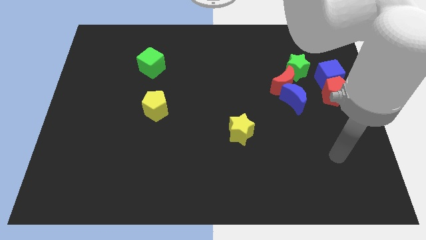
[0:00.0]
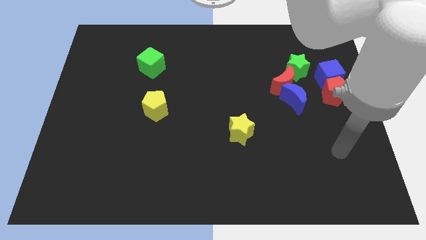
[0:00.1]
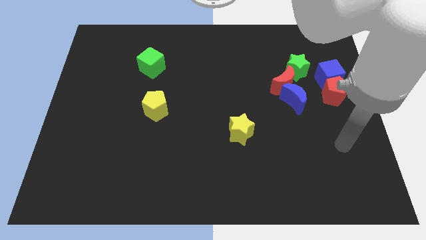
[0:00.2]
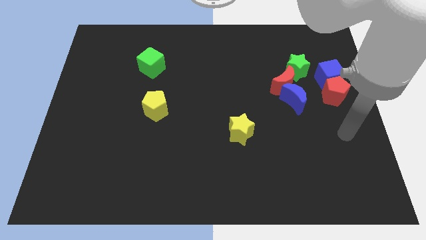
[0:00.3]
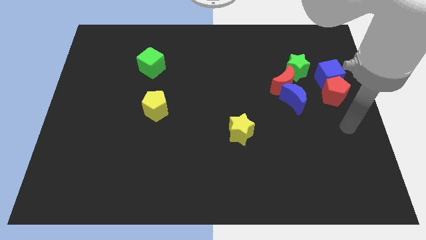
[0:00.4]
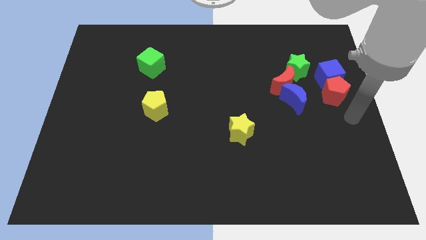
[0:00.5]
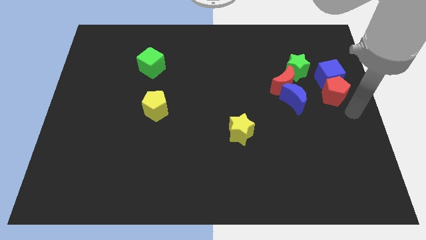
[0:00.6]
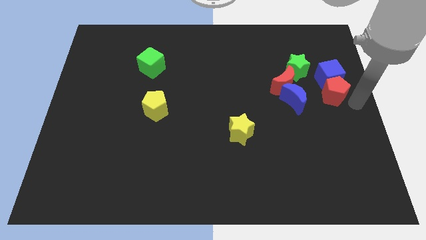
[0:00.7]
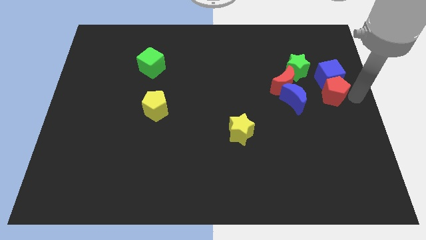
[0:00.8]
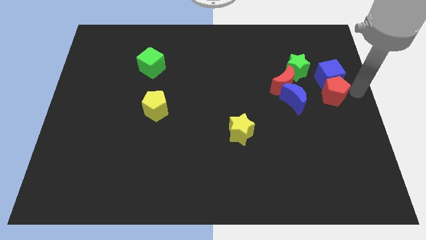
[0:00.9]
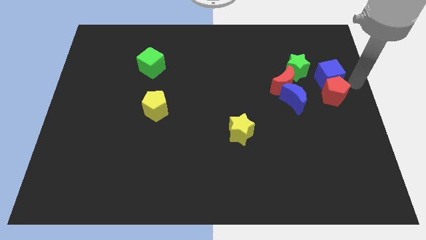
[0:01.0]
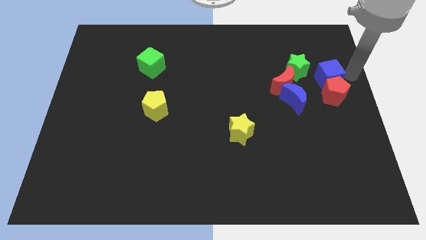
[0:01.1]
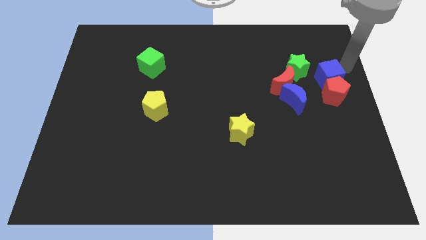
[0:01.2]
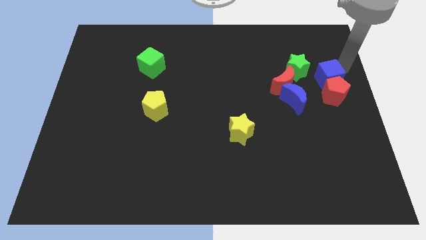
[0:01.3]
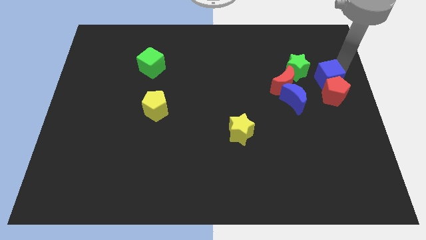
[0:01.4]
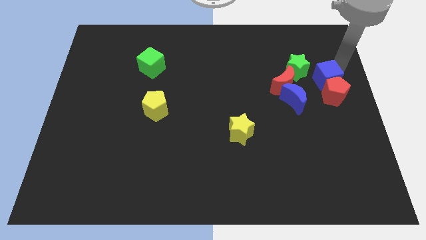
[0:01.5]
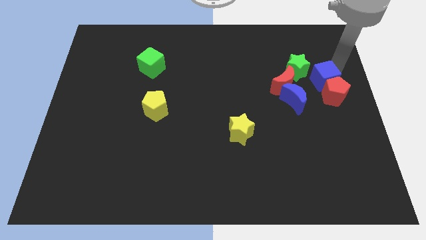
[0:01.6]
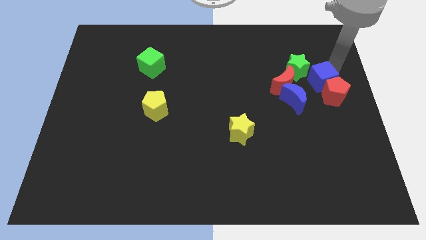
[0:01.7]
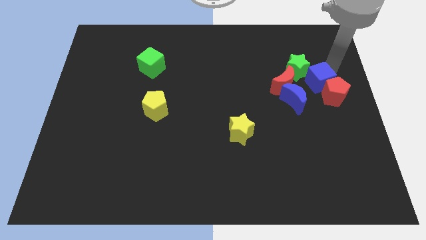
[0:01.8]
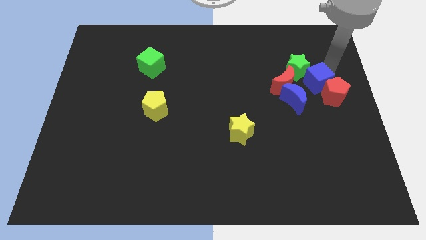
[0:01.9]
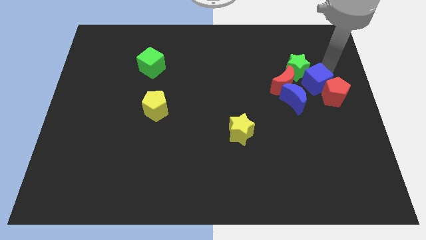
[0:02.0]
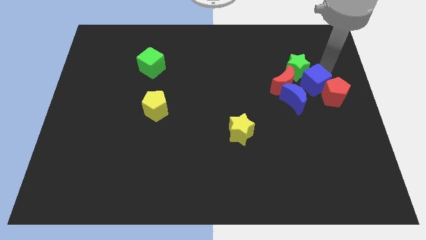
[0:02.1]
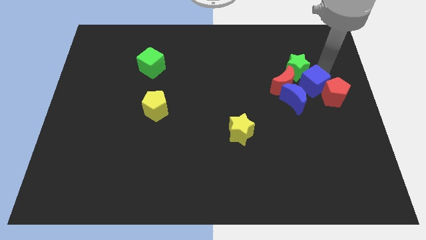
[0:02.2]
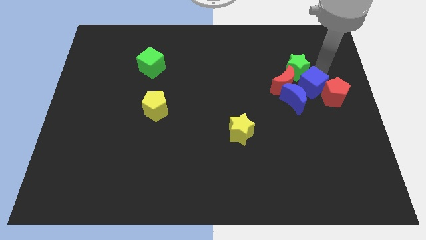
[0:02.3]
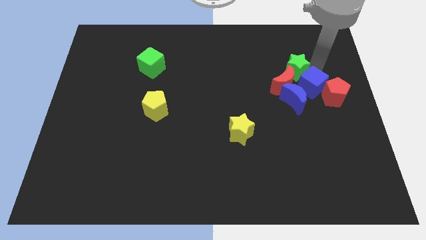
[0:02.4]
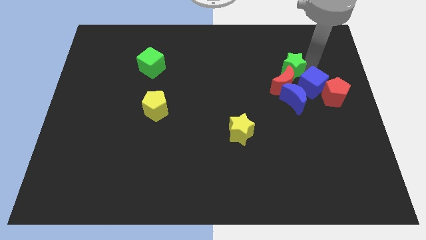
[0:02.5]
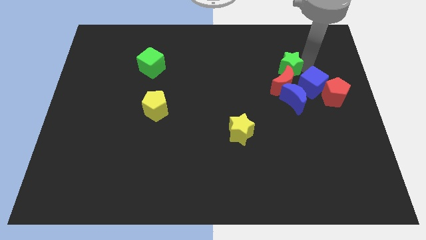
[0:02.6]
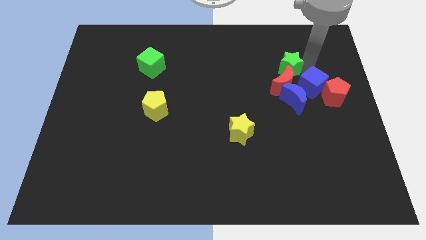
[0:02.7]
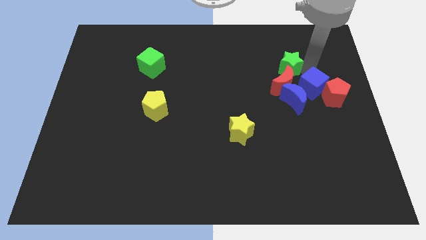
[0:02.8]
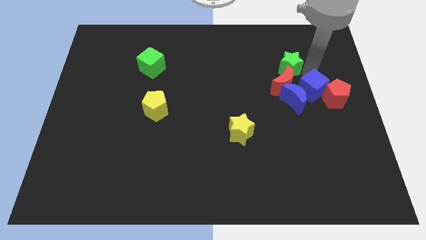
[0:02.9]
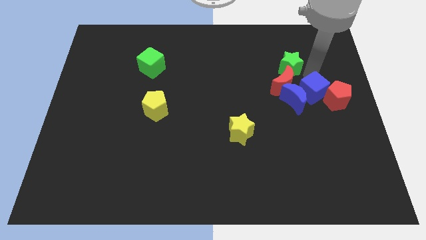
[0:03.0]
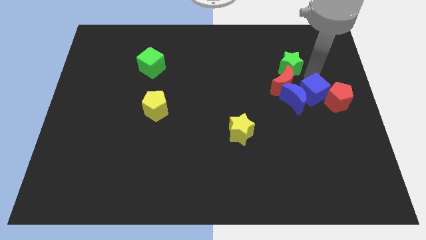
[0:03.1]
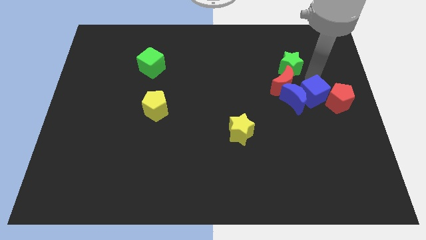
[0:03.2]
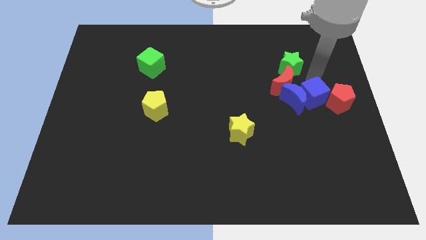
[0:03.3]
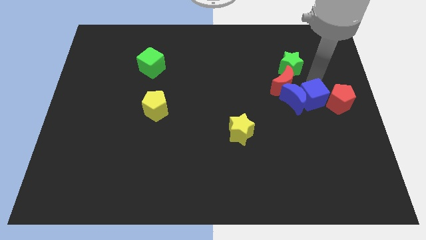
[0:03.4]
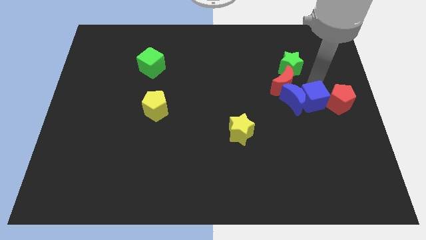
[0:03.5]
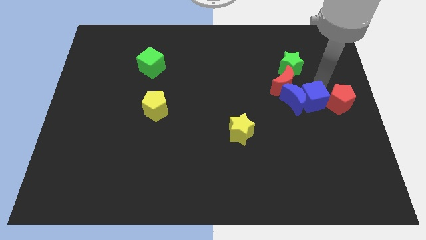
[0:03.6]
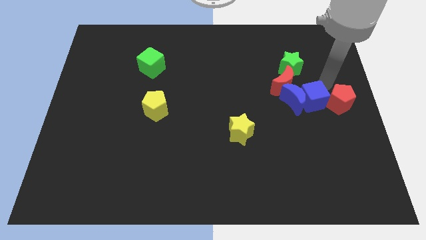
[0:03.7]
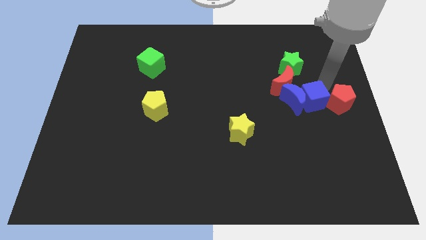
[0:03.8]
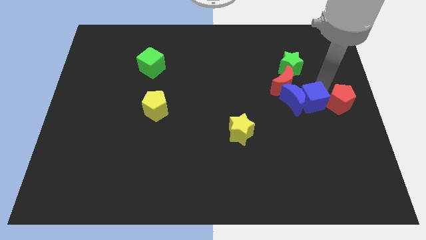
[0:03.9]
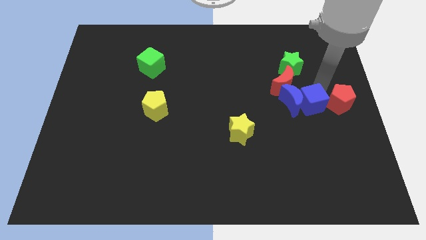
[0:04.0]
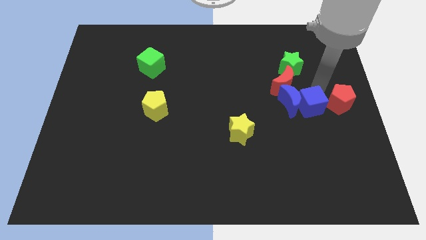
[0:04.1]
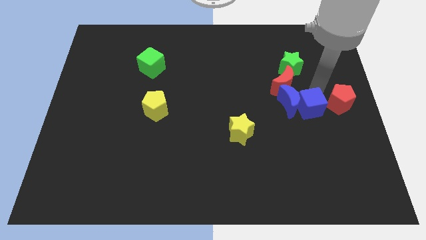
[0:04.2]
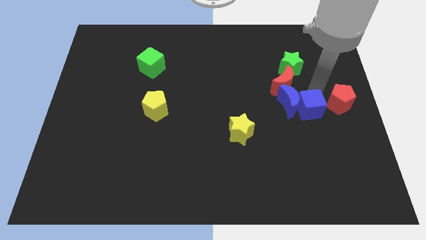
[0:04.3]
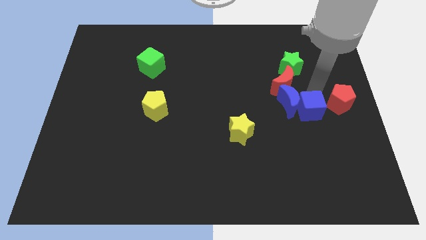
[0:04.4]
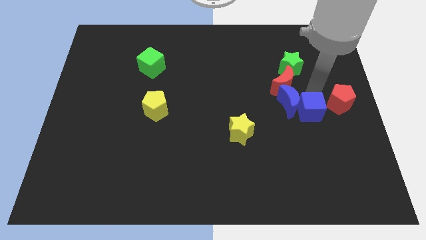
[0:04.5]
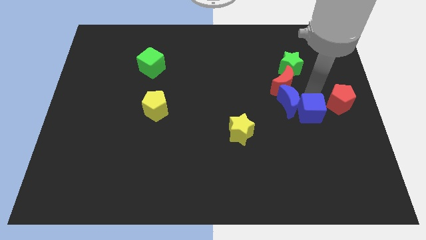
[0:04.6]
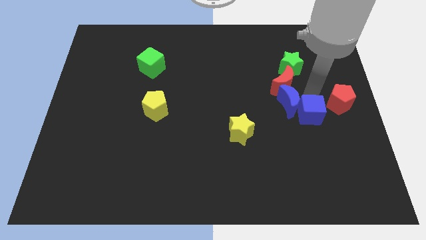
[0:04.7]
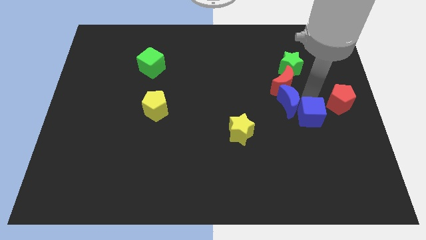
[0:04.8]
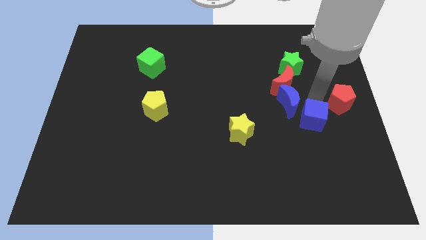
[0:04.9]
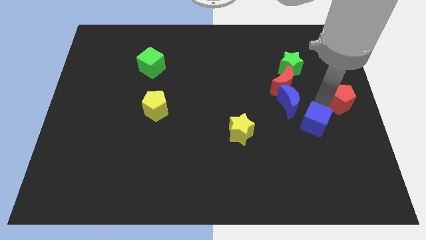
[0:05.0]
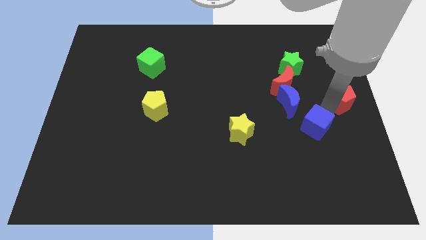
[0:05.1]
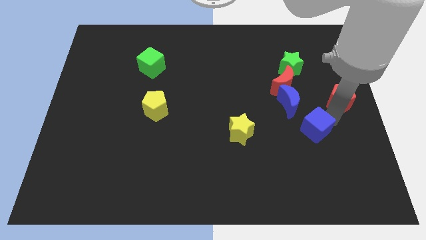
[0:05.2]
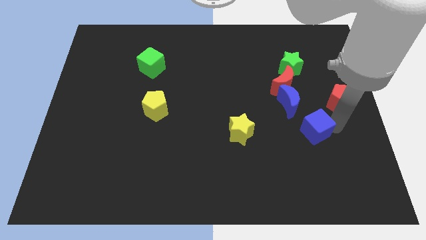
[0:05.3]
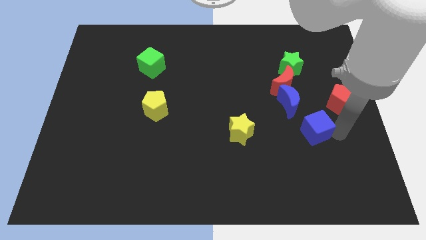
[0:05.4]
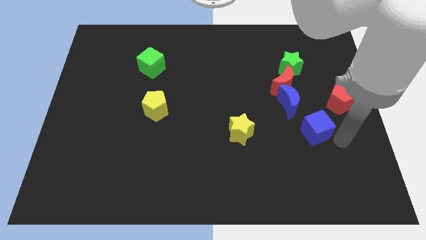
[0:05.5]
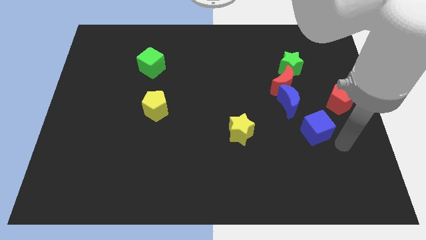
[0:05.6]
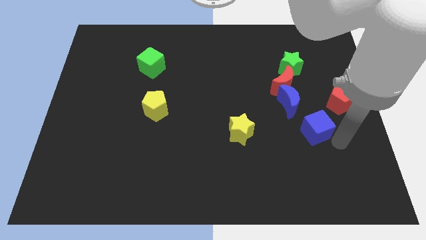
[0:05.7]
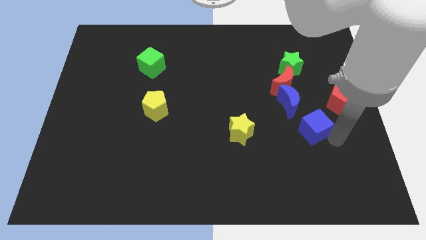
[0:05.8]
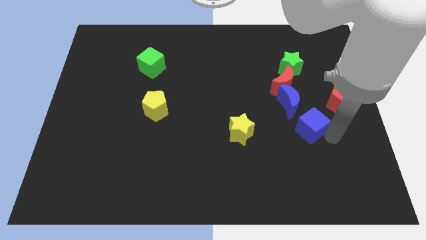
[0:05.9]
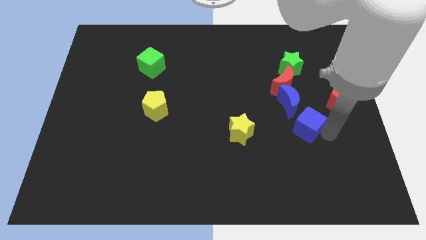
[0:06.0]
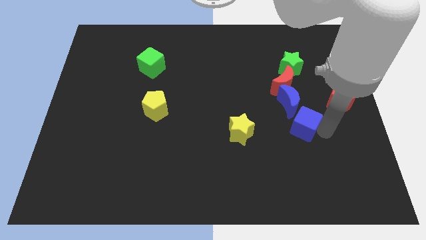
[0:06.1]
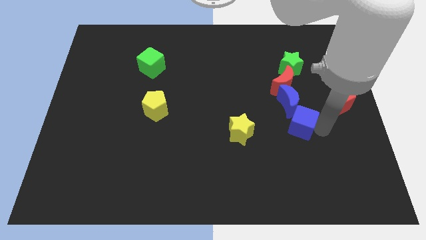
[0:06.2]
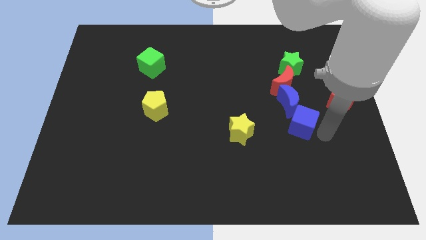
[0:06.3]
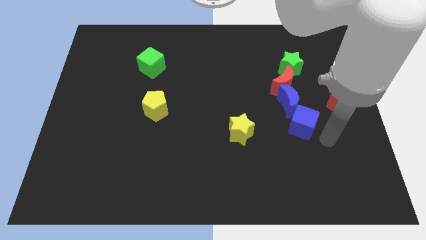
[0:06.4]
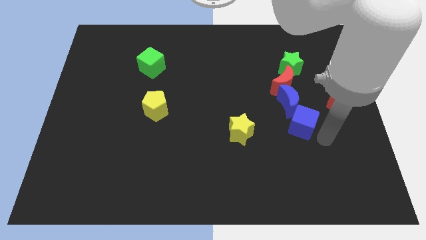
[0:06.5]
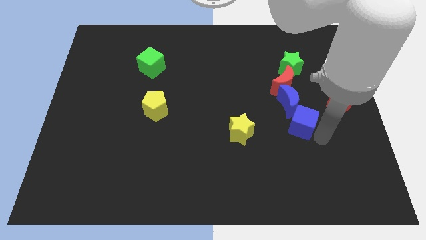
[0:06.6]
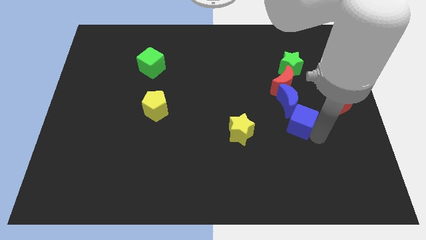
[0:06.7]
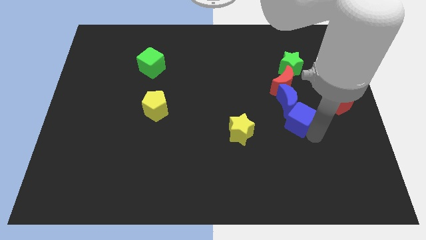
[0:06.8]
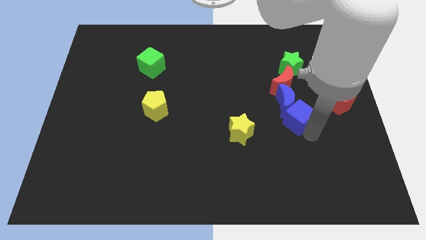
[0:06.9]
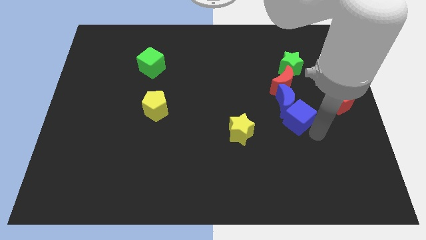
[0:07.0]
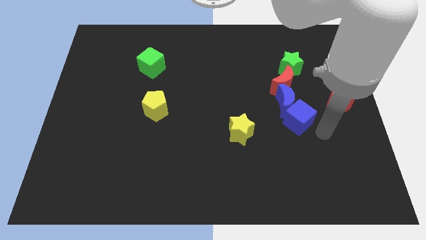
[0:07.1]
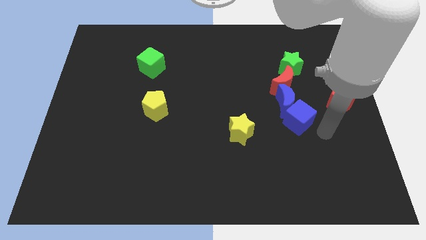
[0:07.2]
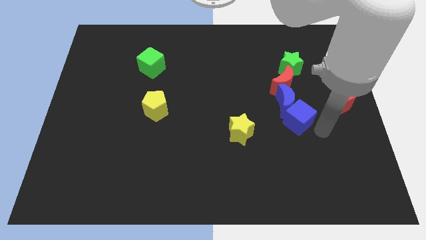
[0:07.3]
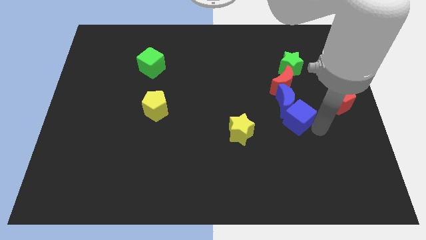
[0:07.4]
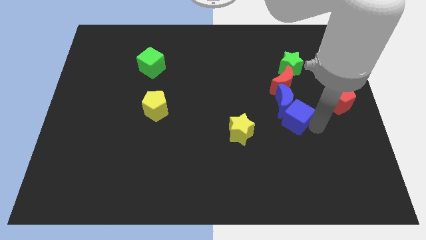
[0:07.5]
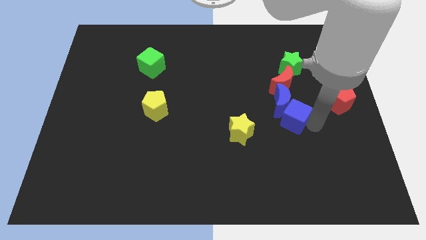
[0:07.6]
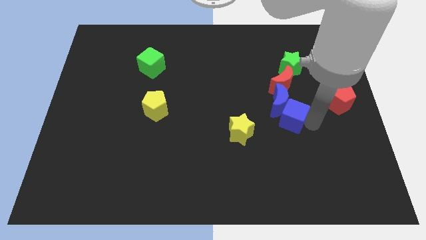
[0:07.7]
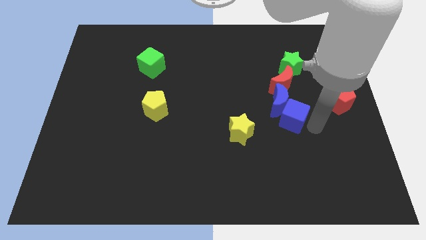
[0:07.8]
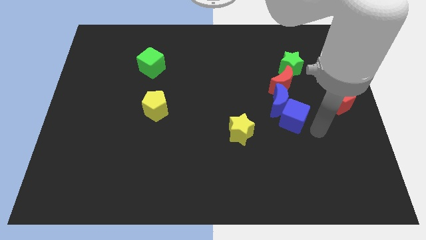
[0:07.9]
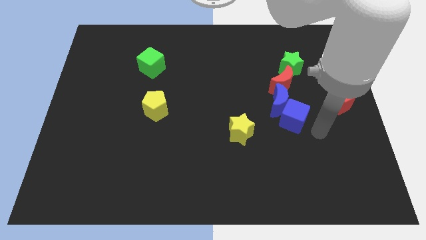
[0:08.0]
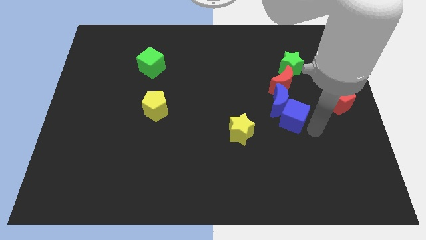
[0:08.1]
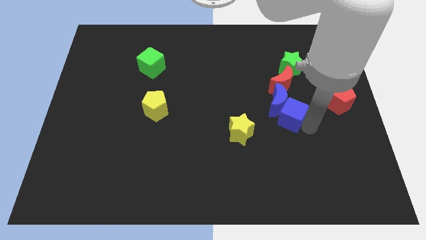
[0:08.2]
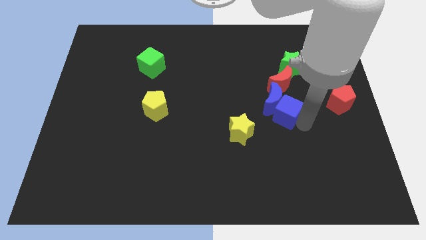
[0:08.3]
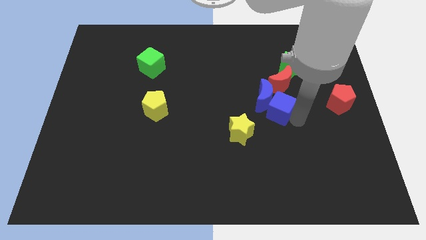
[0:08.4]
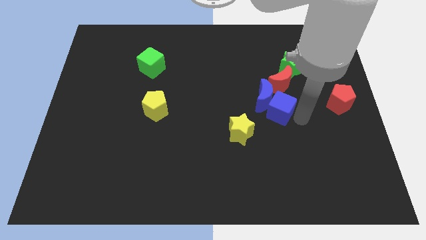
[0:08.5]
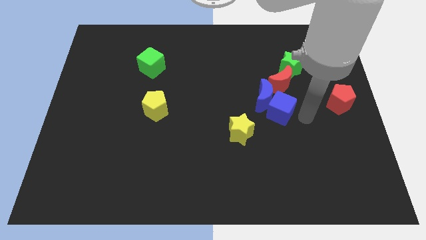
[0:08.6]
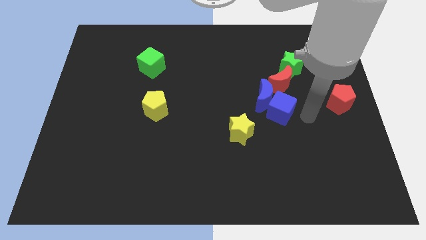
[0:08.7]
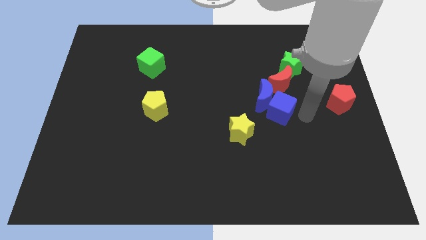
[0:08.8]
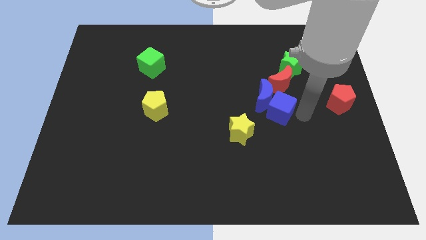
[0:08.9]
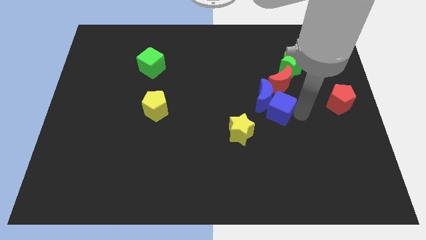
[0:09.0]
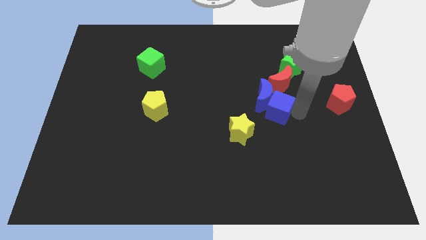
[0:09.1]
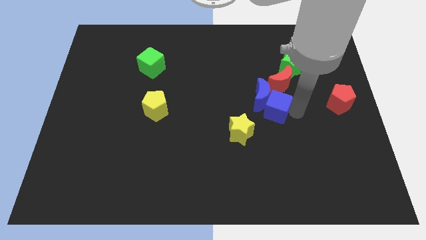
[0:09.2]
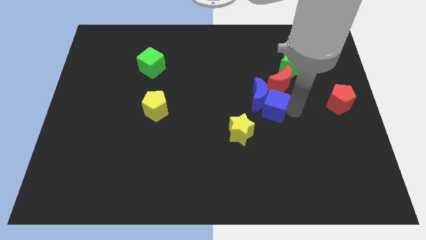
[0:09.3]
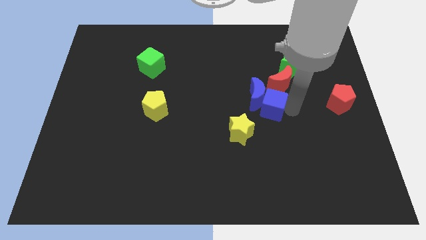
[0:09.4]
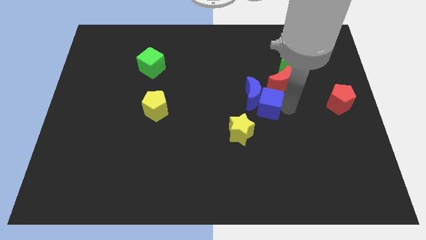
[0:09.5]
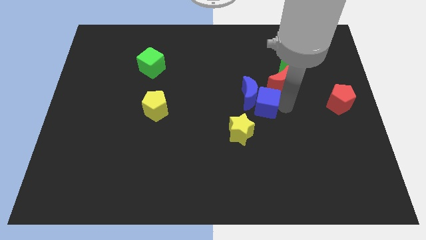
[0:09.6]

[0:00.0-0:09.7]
slide the blue cube to the center
